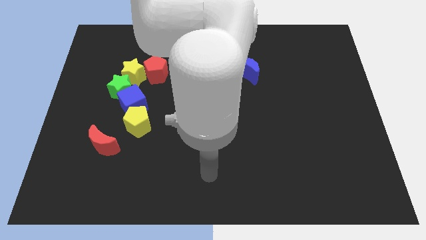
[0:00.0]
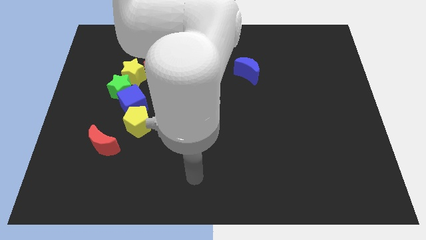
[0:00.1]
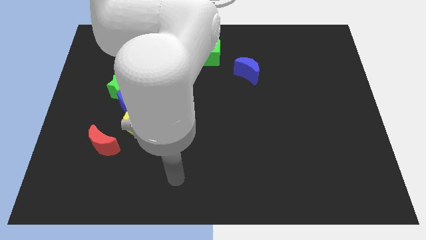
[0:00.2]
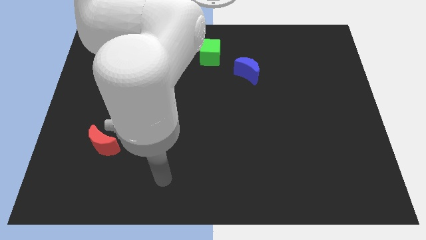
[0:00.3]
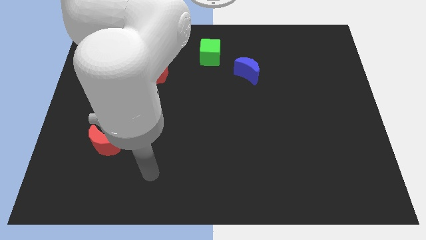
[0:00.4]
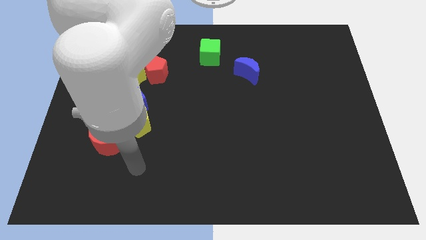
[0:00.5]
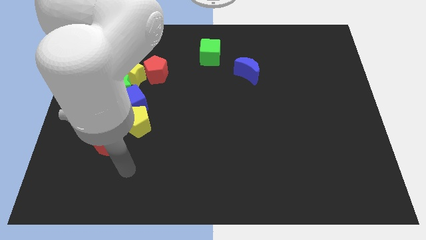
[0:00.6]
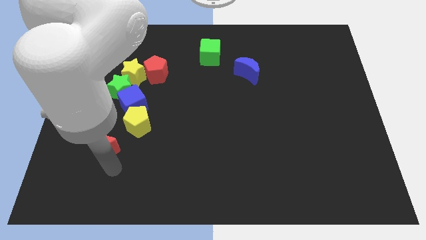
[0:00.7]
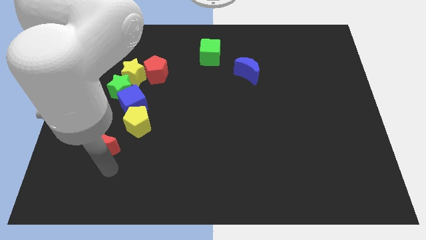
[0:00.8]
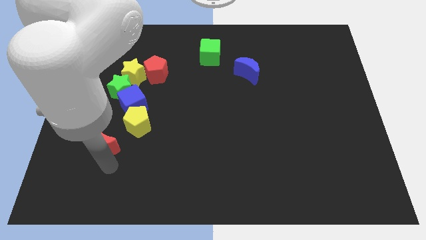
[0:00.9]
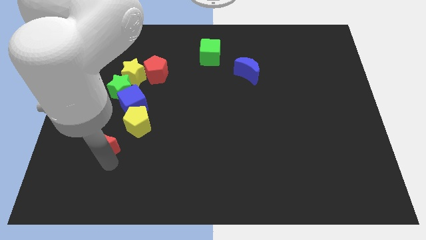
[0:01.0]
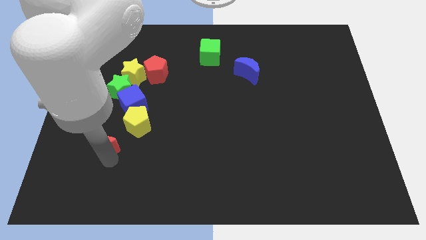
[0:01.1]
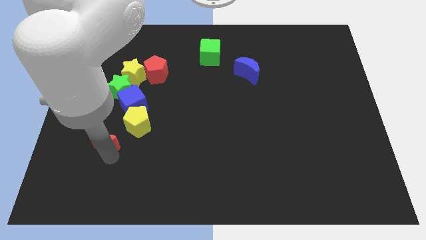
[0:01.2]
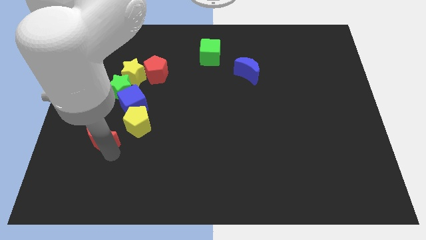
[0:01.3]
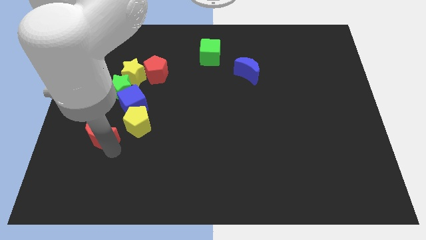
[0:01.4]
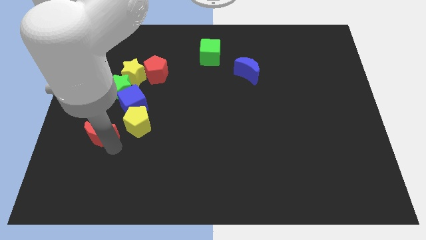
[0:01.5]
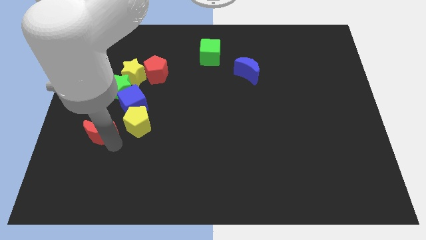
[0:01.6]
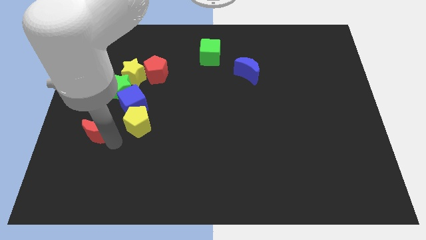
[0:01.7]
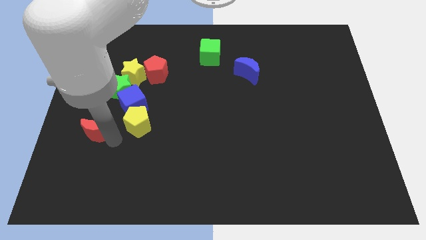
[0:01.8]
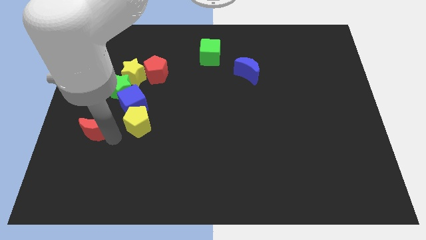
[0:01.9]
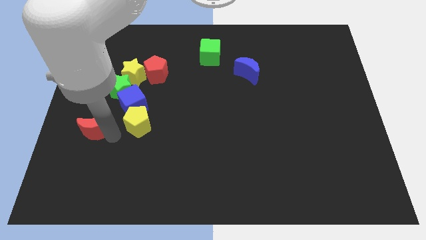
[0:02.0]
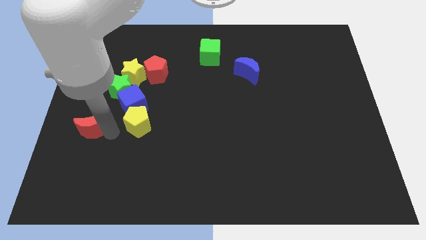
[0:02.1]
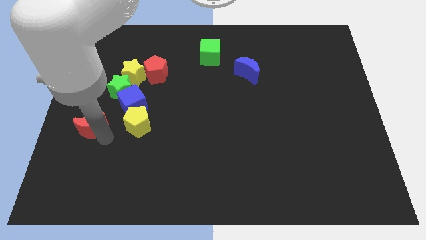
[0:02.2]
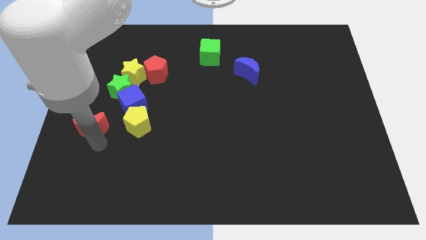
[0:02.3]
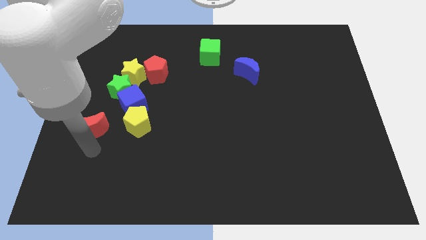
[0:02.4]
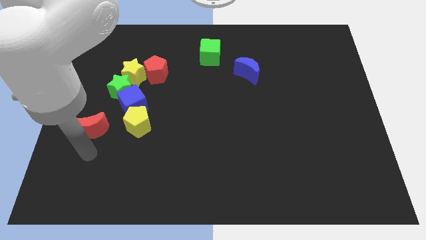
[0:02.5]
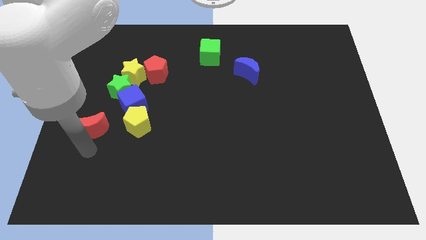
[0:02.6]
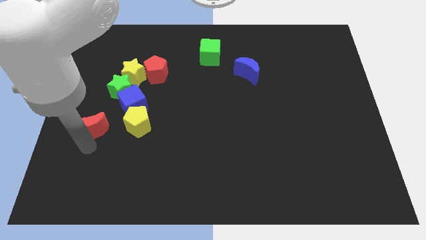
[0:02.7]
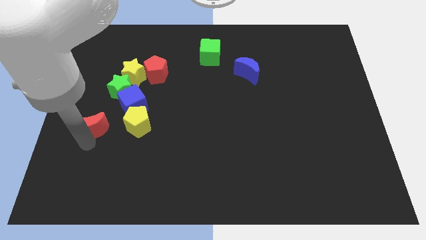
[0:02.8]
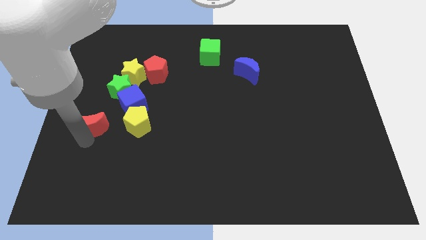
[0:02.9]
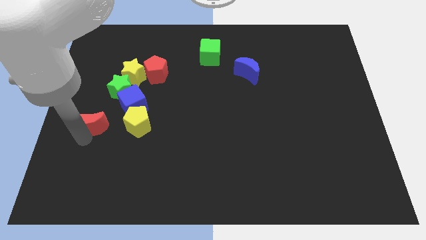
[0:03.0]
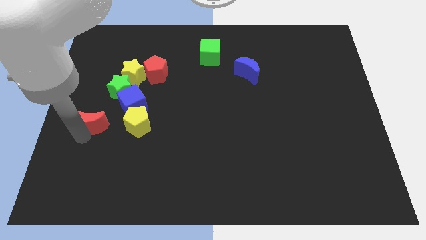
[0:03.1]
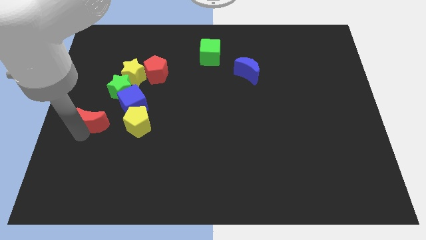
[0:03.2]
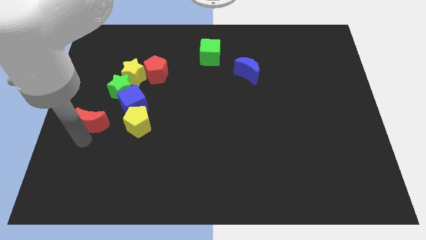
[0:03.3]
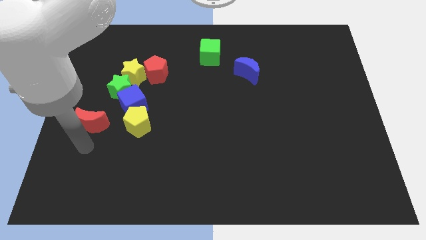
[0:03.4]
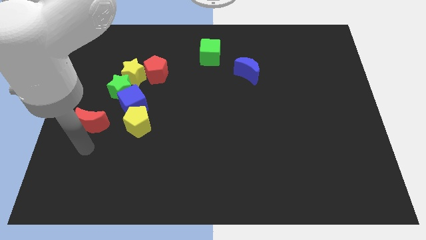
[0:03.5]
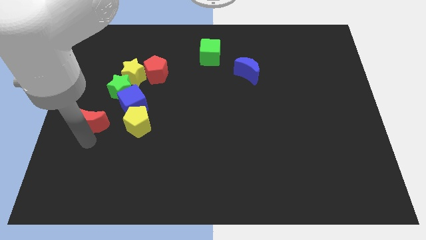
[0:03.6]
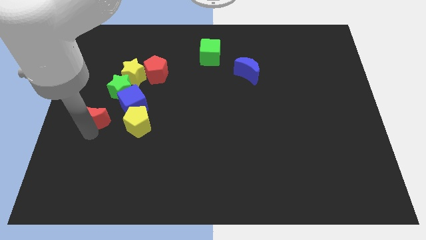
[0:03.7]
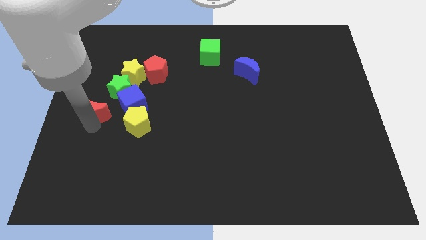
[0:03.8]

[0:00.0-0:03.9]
push the red moon a little upwards

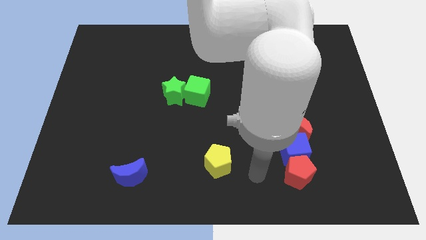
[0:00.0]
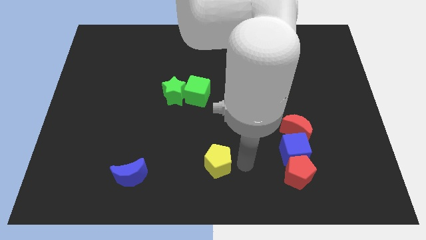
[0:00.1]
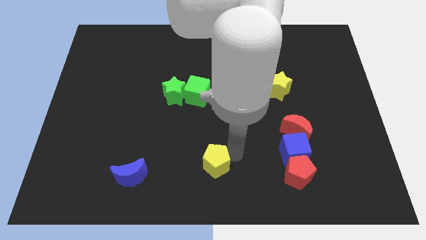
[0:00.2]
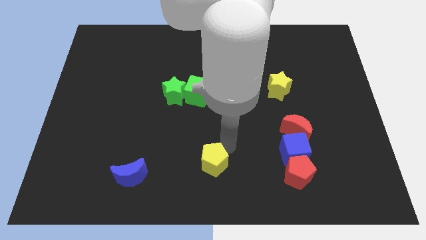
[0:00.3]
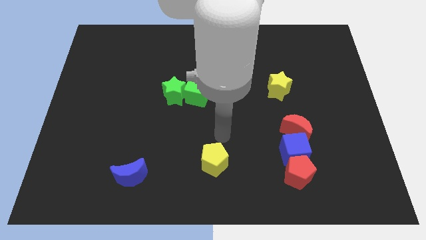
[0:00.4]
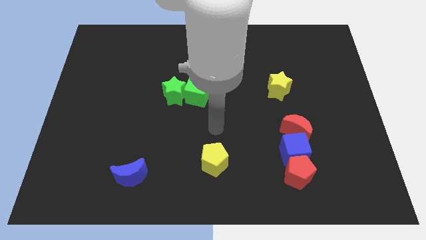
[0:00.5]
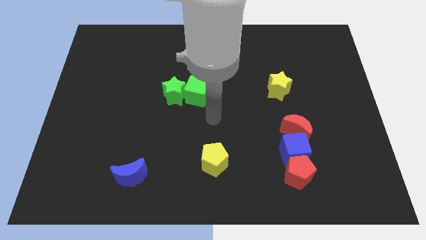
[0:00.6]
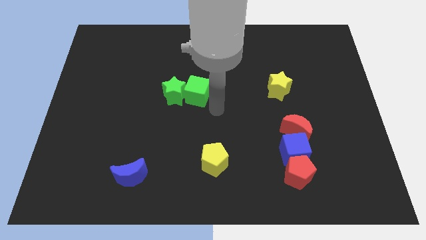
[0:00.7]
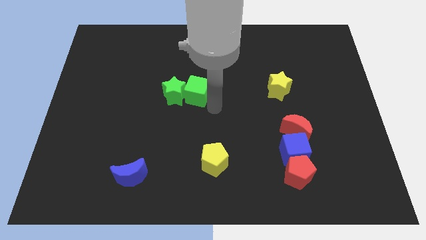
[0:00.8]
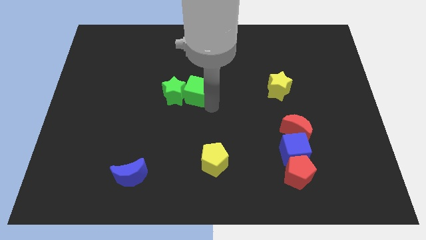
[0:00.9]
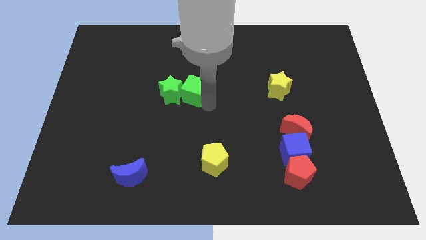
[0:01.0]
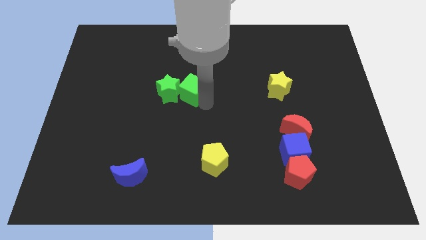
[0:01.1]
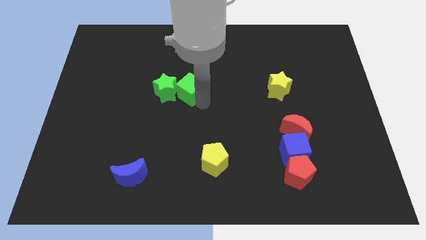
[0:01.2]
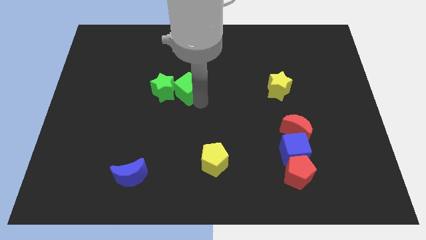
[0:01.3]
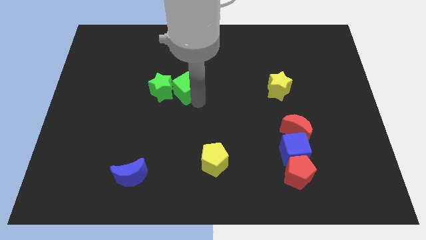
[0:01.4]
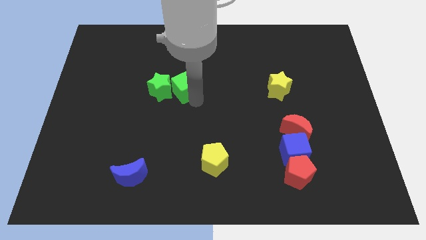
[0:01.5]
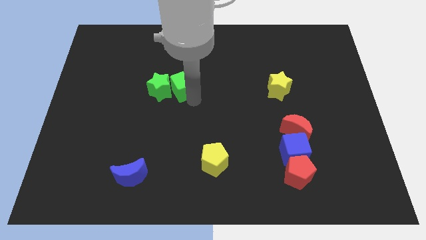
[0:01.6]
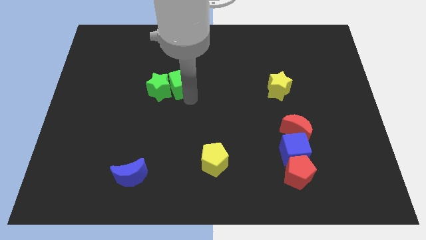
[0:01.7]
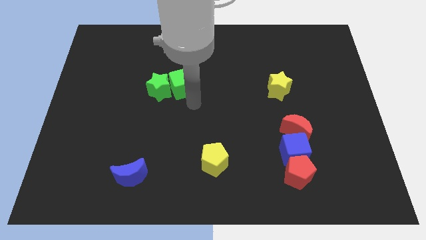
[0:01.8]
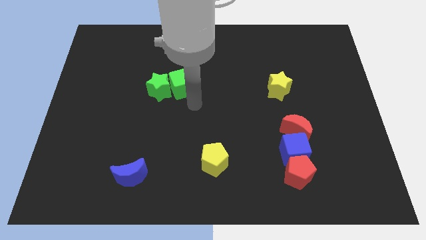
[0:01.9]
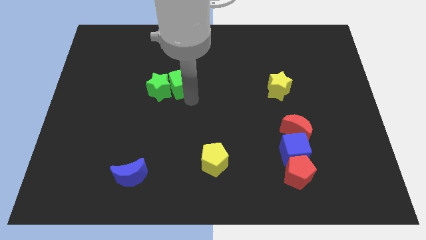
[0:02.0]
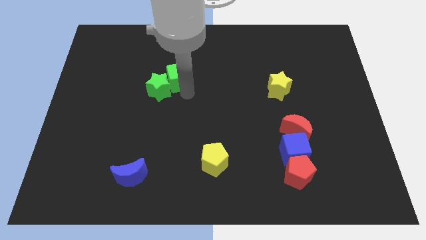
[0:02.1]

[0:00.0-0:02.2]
slide the green cube slightly up and to the left diagonally

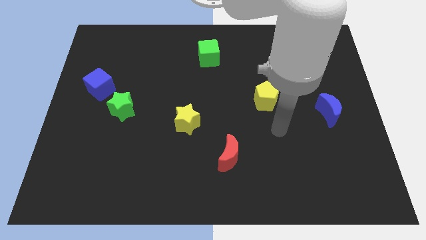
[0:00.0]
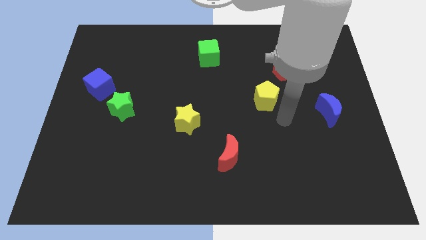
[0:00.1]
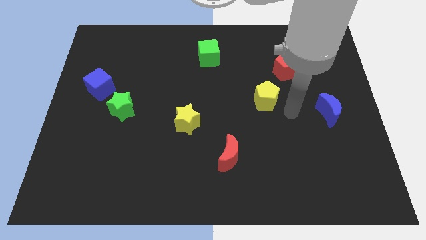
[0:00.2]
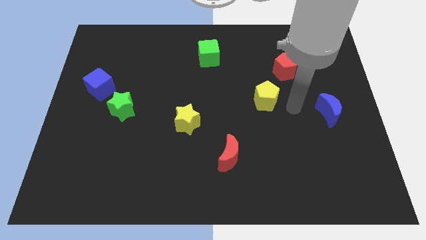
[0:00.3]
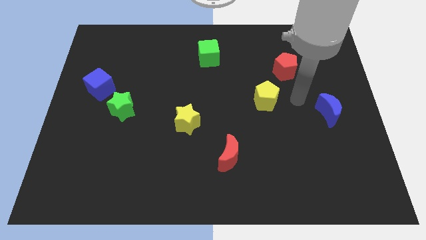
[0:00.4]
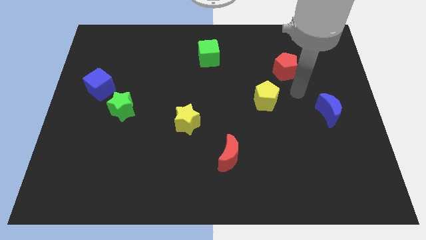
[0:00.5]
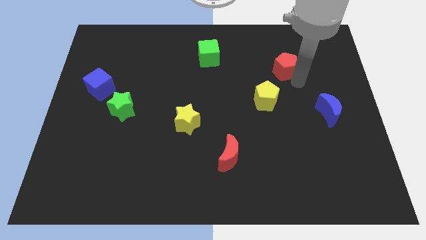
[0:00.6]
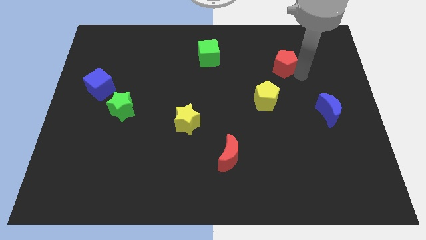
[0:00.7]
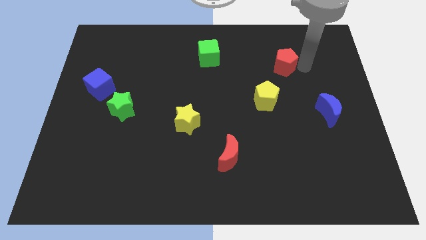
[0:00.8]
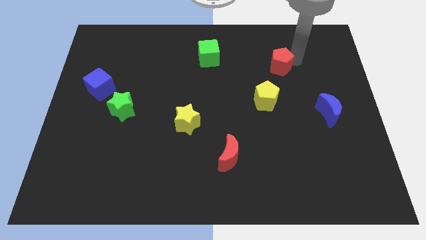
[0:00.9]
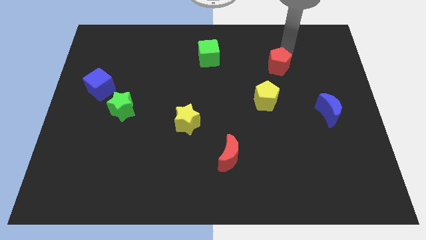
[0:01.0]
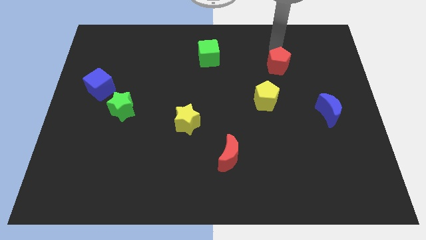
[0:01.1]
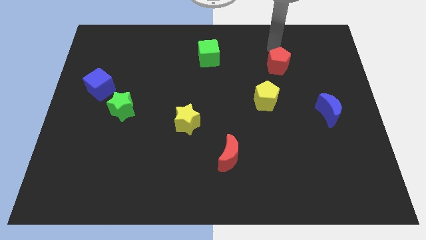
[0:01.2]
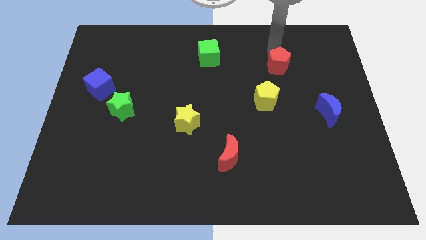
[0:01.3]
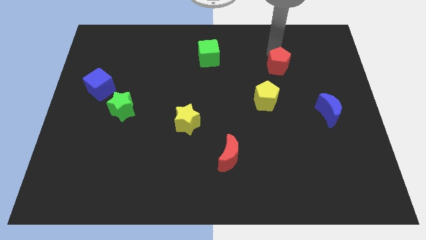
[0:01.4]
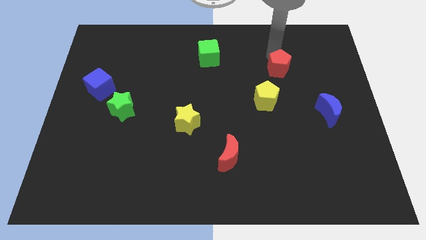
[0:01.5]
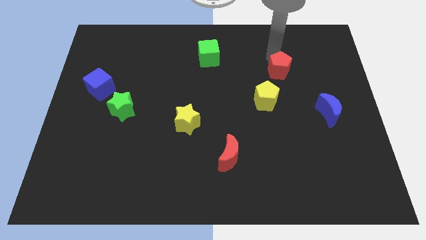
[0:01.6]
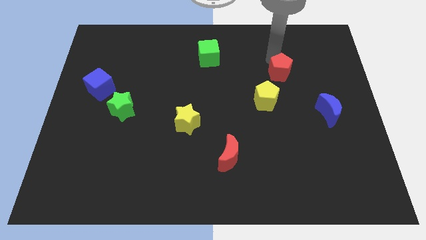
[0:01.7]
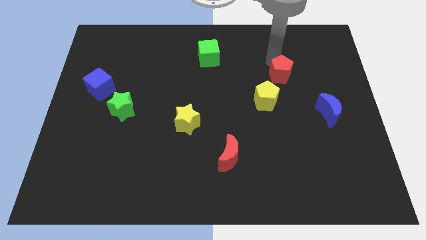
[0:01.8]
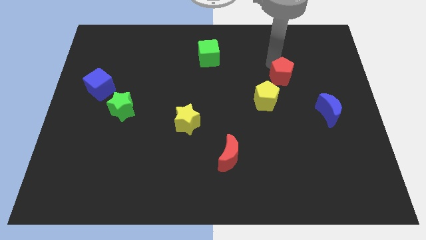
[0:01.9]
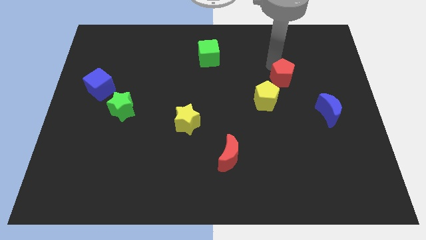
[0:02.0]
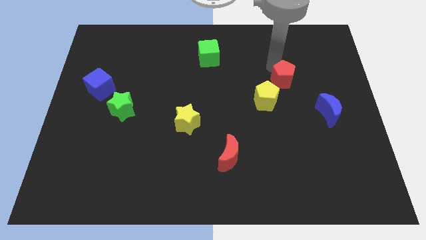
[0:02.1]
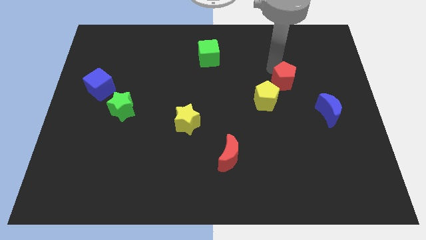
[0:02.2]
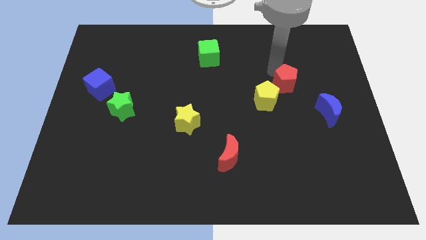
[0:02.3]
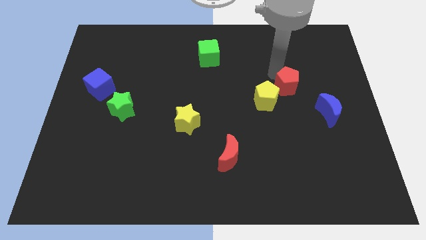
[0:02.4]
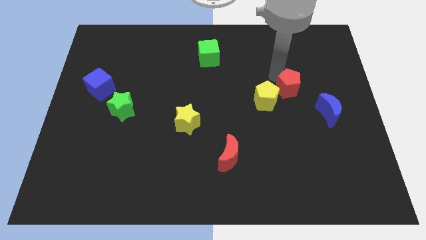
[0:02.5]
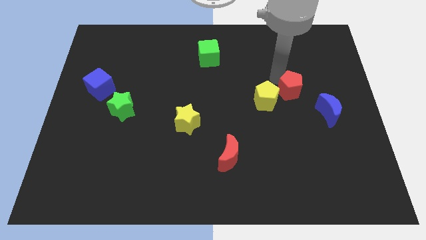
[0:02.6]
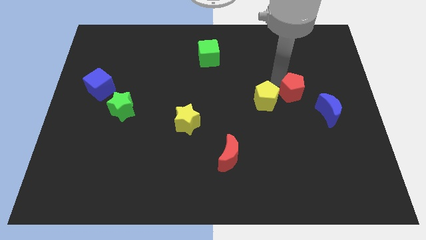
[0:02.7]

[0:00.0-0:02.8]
push the red pentagon downwards slightly
